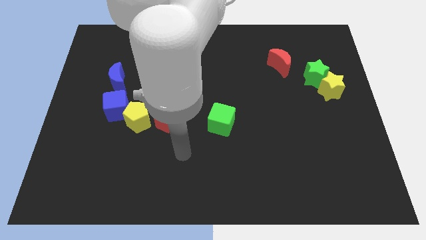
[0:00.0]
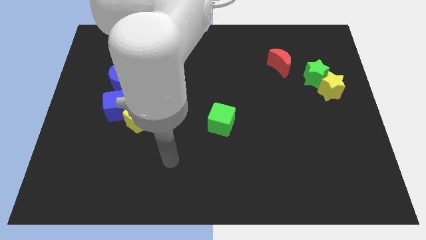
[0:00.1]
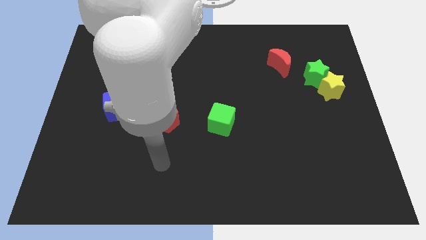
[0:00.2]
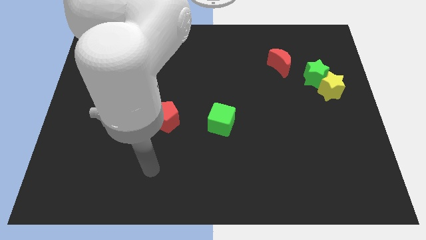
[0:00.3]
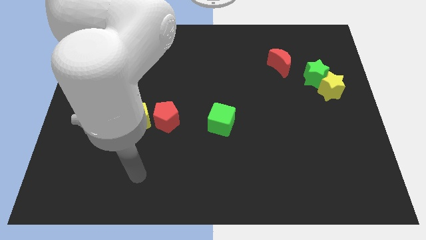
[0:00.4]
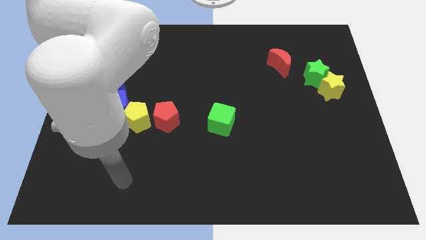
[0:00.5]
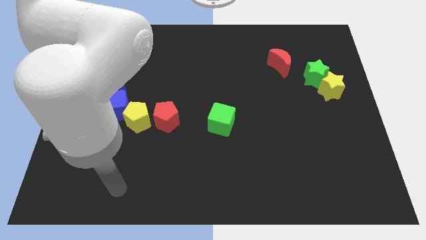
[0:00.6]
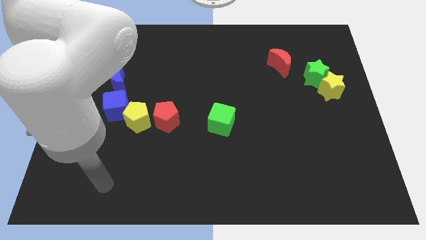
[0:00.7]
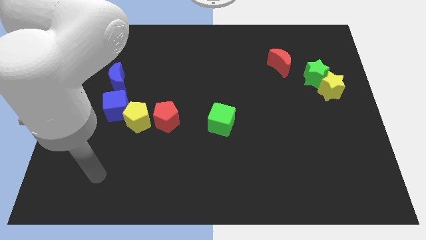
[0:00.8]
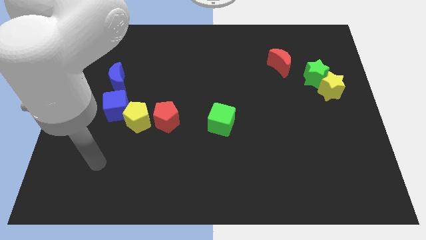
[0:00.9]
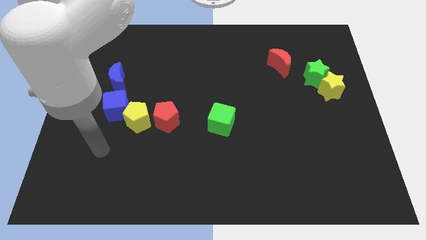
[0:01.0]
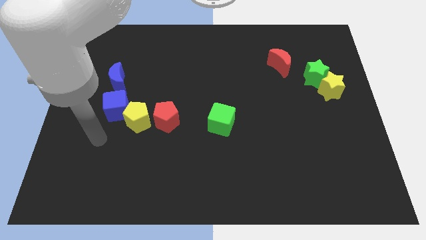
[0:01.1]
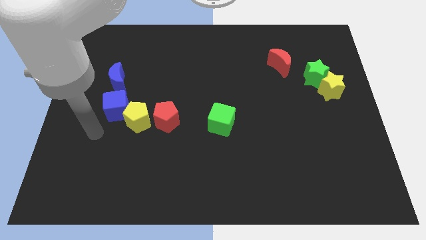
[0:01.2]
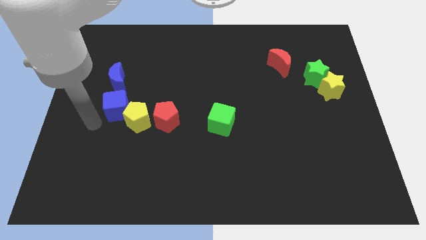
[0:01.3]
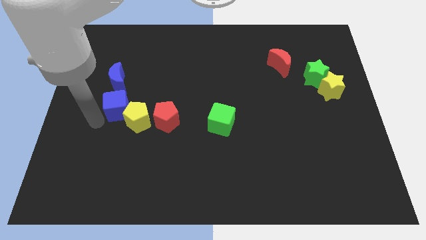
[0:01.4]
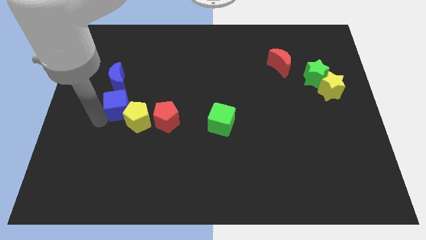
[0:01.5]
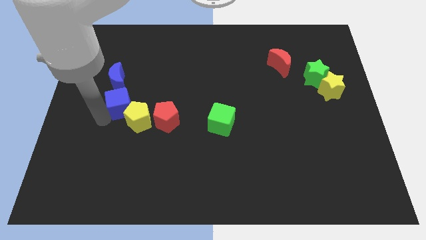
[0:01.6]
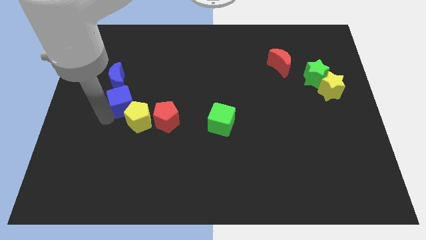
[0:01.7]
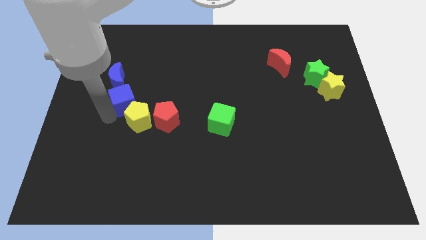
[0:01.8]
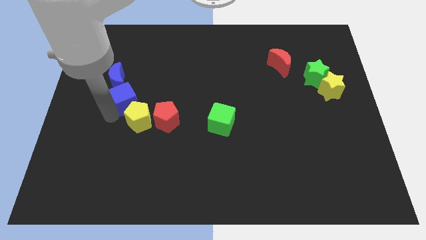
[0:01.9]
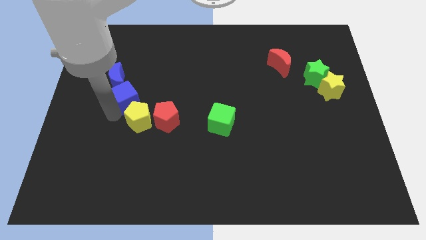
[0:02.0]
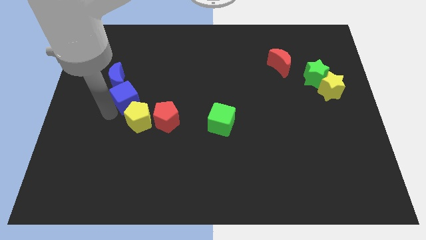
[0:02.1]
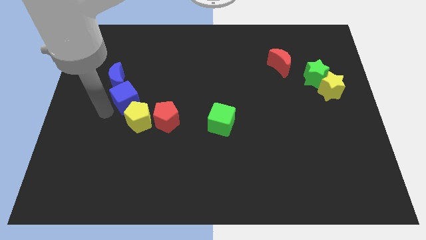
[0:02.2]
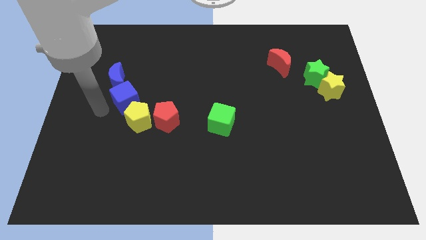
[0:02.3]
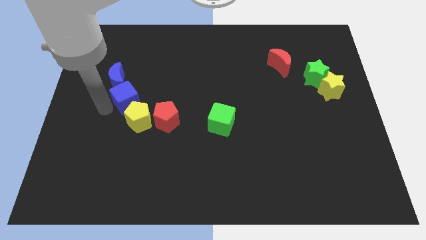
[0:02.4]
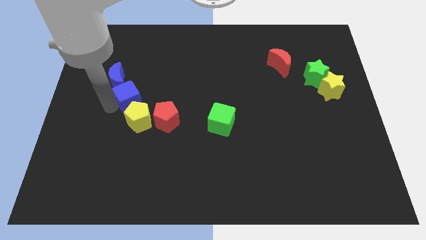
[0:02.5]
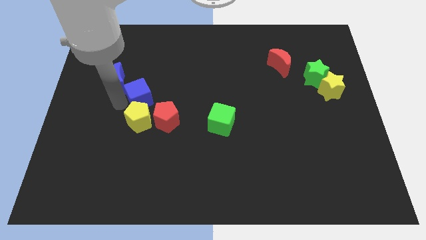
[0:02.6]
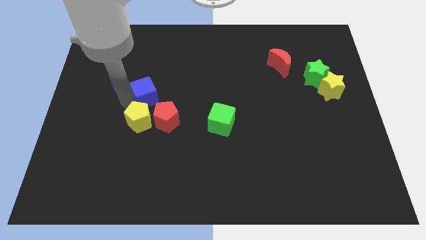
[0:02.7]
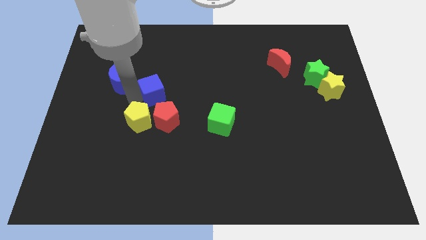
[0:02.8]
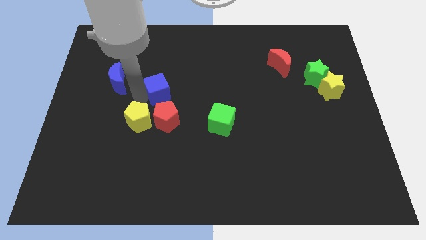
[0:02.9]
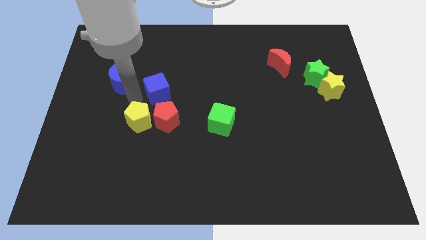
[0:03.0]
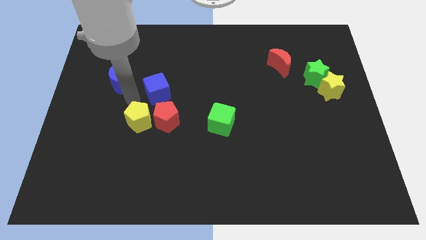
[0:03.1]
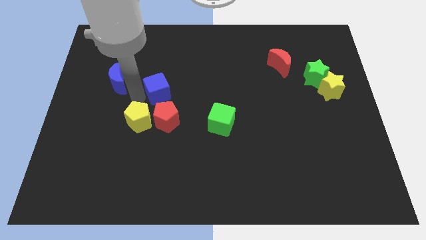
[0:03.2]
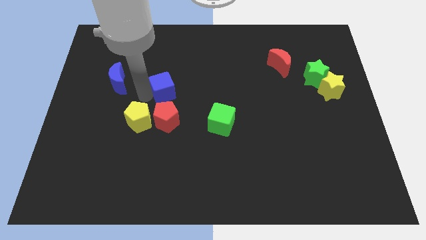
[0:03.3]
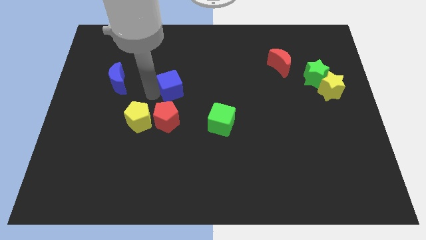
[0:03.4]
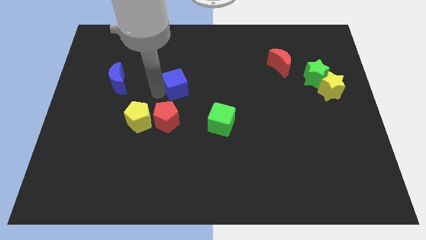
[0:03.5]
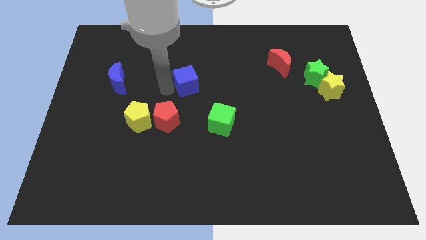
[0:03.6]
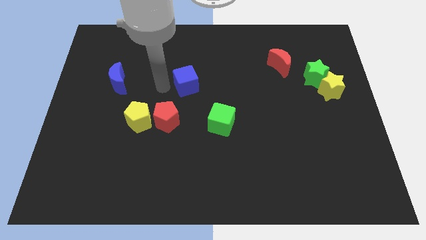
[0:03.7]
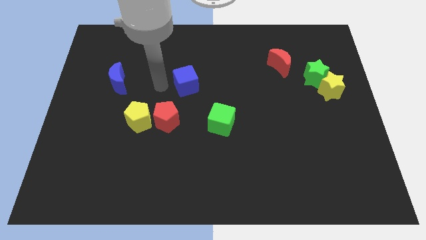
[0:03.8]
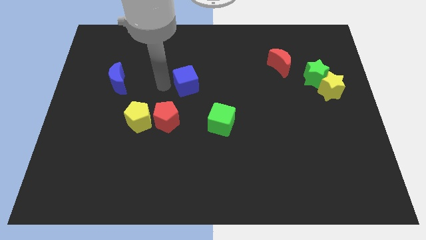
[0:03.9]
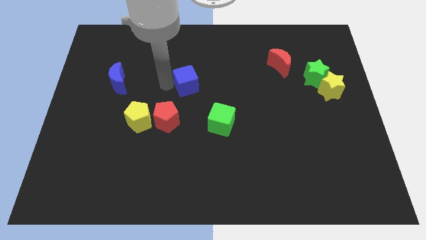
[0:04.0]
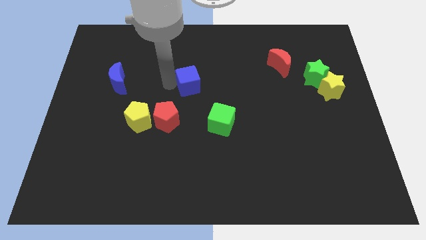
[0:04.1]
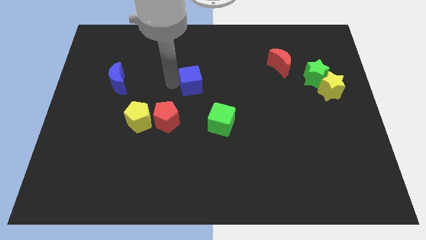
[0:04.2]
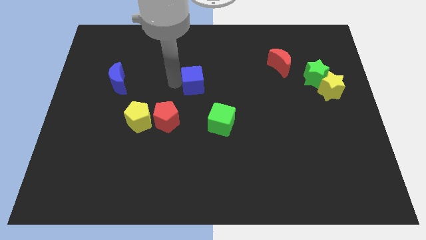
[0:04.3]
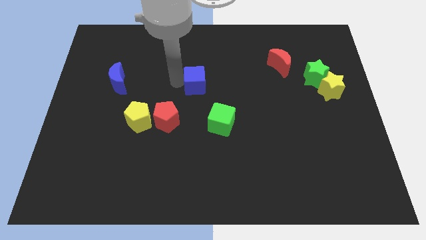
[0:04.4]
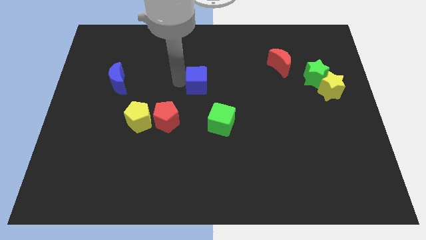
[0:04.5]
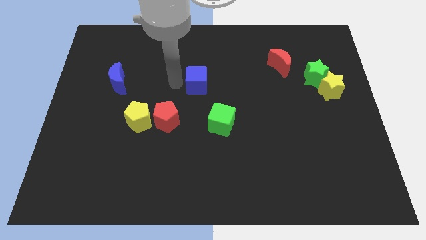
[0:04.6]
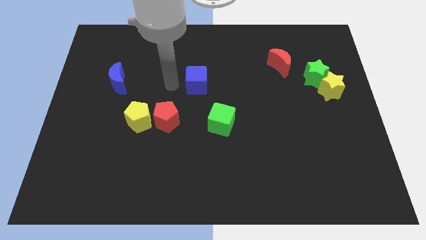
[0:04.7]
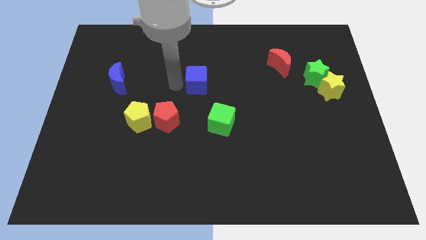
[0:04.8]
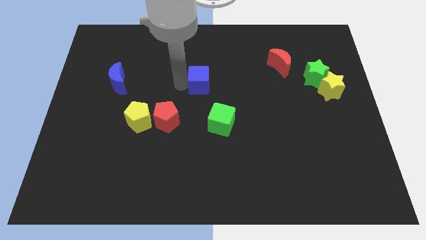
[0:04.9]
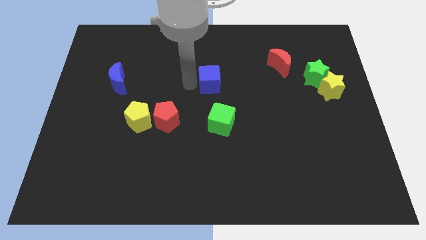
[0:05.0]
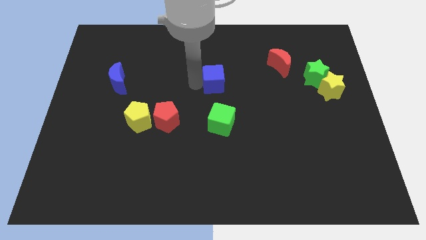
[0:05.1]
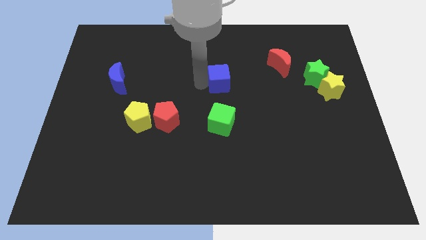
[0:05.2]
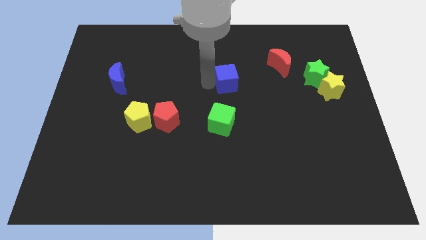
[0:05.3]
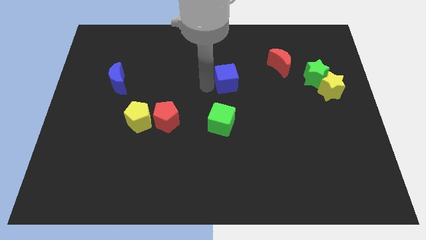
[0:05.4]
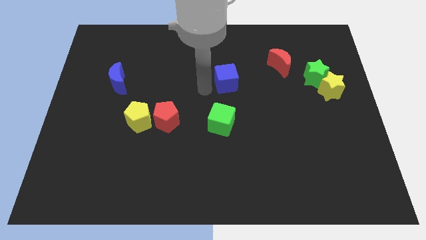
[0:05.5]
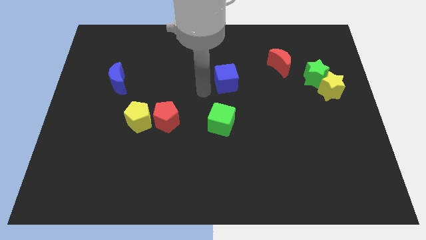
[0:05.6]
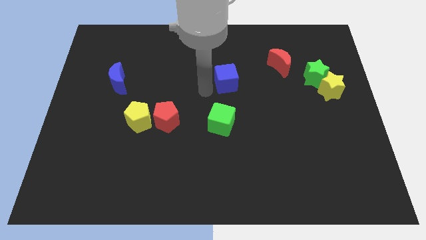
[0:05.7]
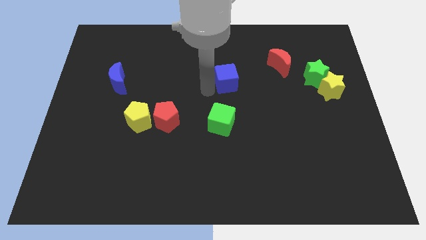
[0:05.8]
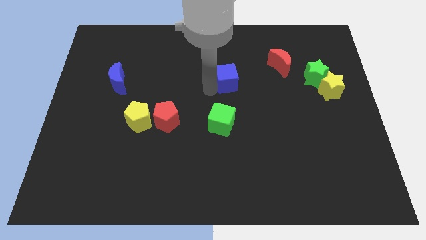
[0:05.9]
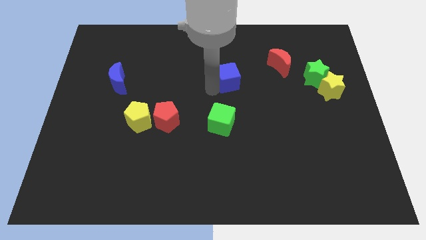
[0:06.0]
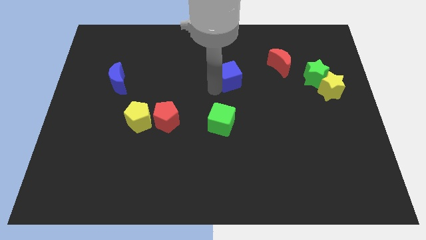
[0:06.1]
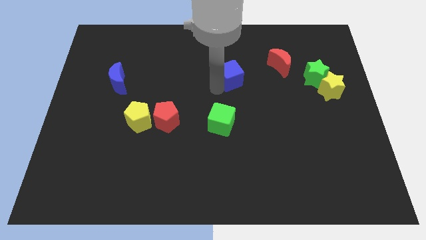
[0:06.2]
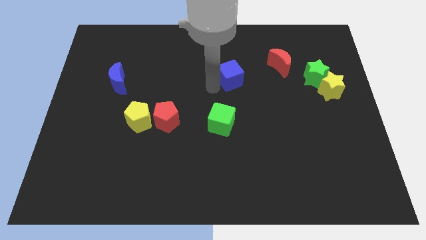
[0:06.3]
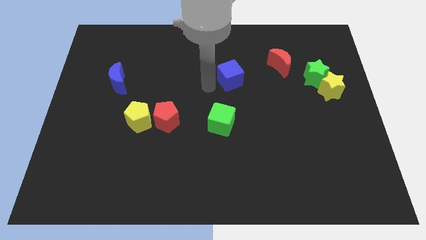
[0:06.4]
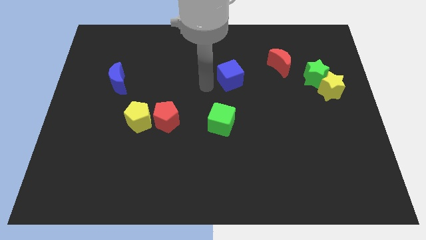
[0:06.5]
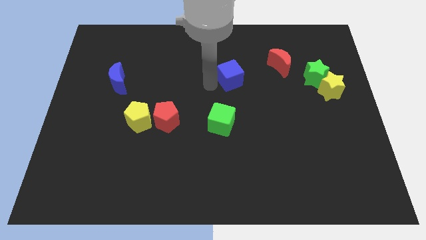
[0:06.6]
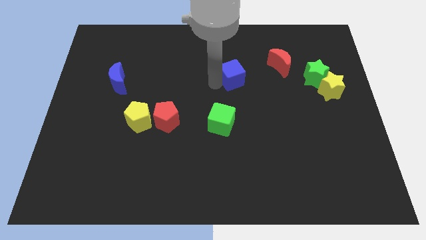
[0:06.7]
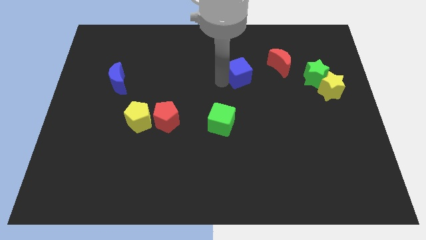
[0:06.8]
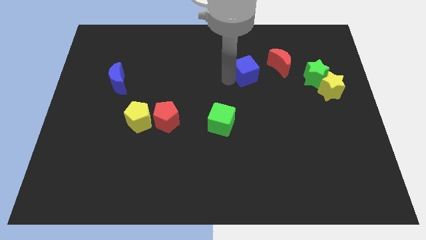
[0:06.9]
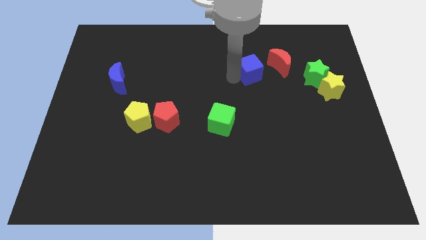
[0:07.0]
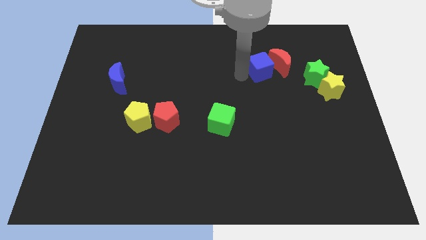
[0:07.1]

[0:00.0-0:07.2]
push the blue cube to the red moon
